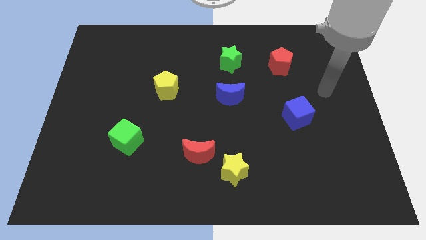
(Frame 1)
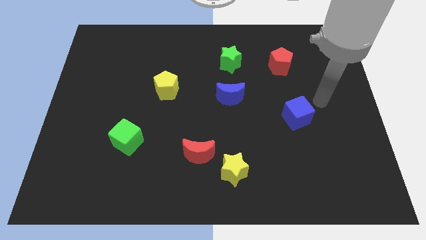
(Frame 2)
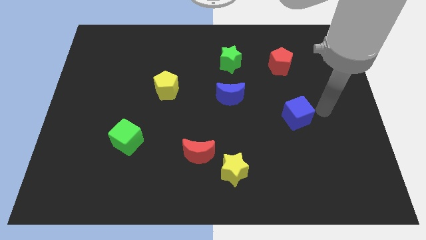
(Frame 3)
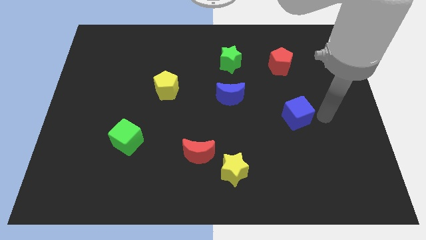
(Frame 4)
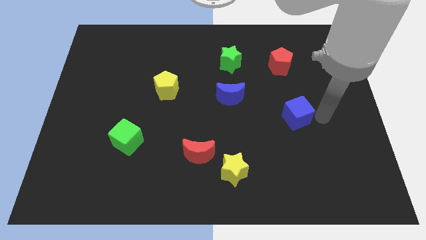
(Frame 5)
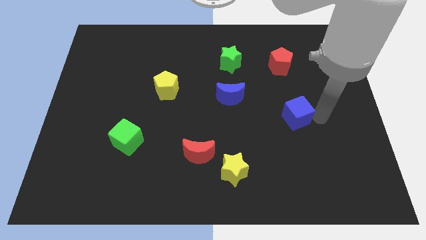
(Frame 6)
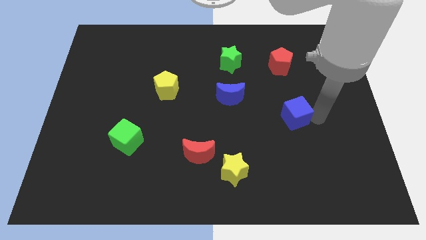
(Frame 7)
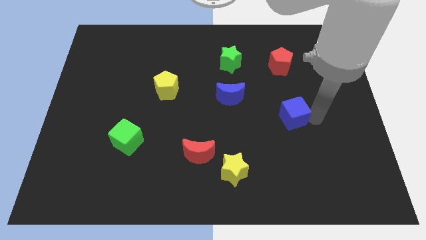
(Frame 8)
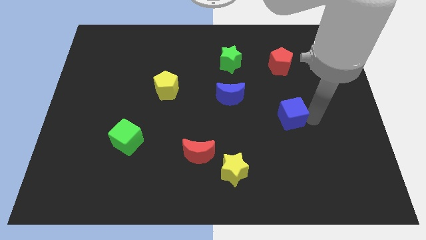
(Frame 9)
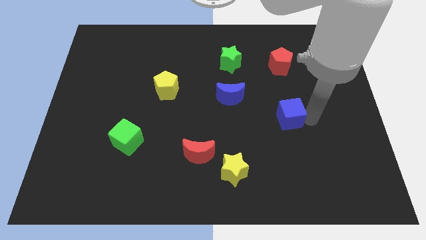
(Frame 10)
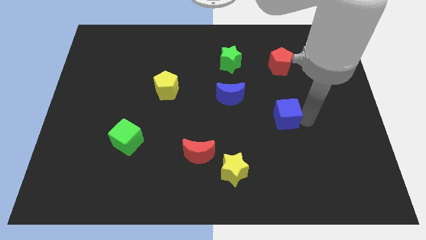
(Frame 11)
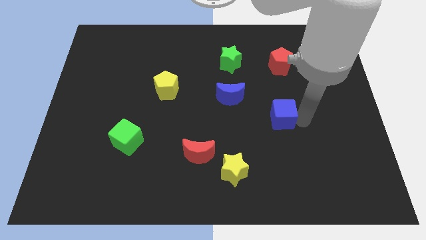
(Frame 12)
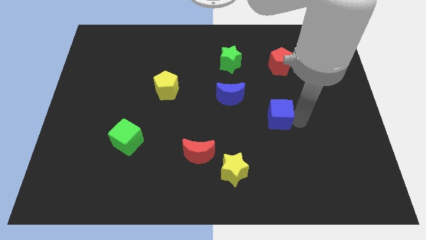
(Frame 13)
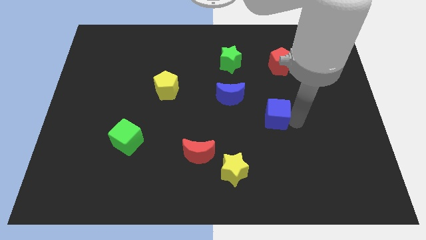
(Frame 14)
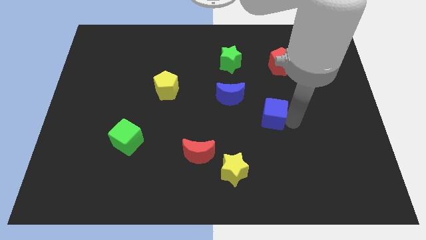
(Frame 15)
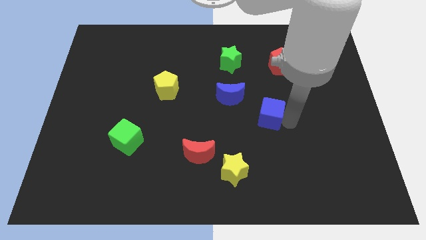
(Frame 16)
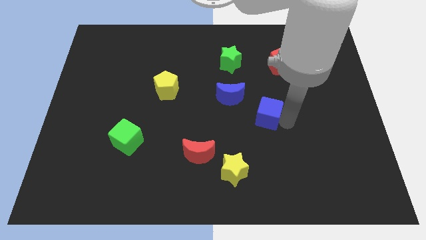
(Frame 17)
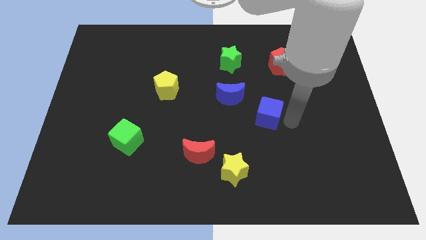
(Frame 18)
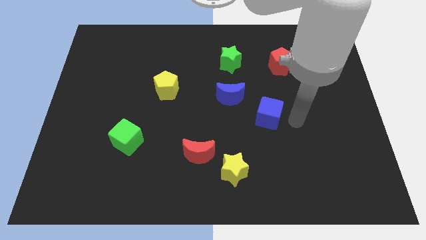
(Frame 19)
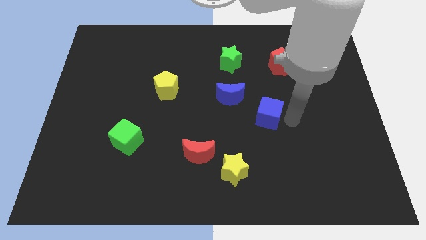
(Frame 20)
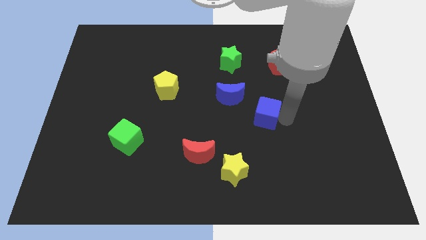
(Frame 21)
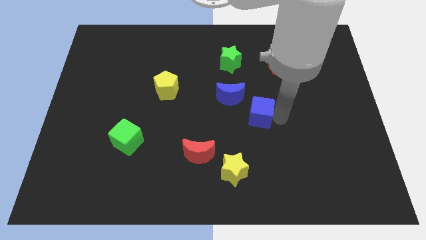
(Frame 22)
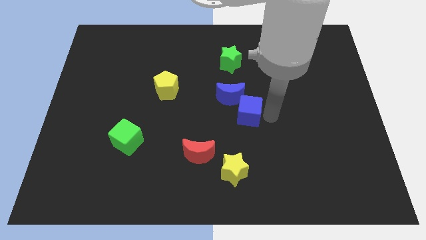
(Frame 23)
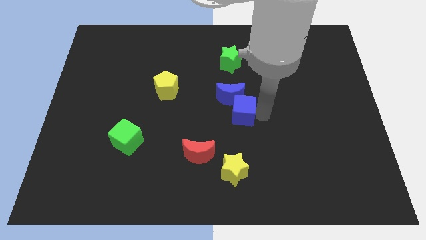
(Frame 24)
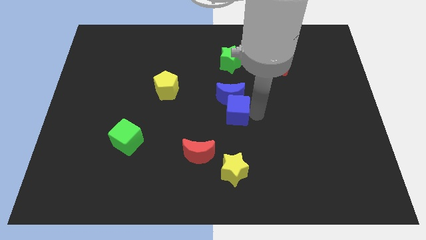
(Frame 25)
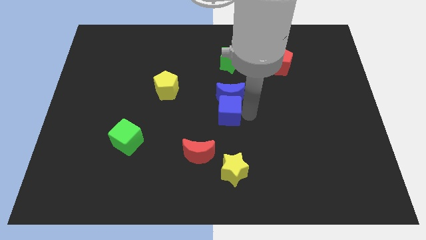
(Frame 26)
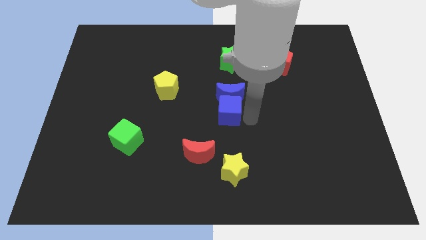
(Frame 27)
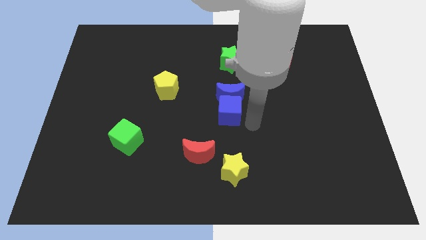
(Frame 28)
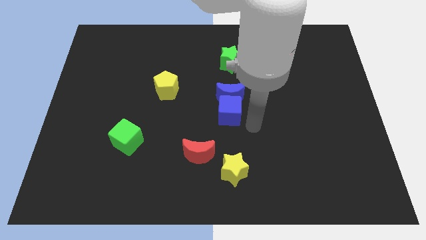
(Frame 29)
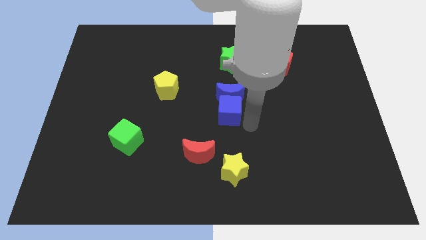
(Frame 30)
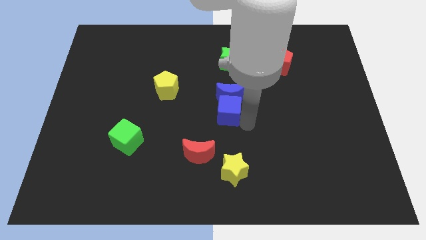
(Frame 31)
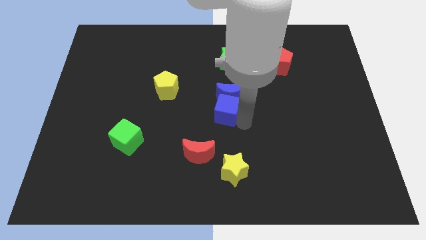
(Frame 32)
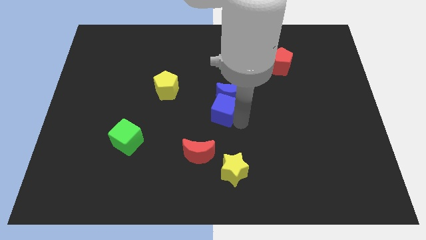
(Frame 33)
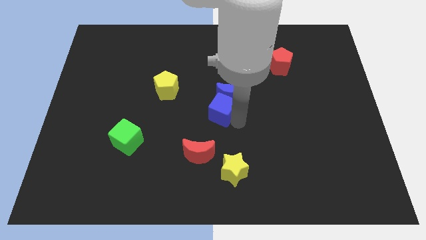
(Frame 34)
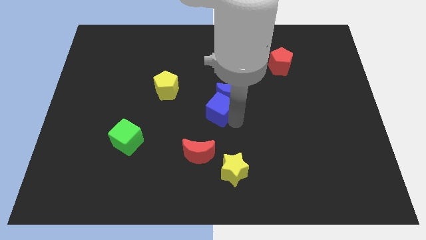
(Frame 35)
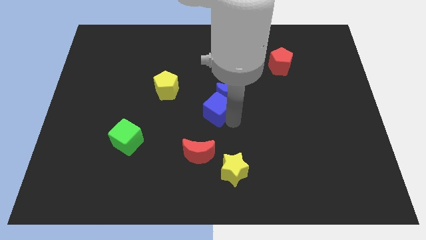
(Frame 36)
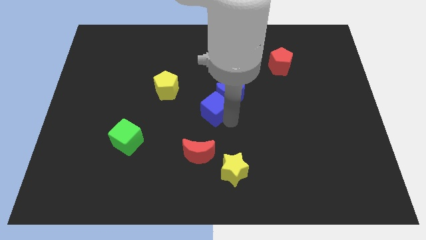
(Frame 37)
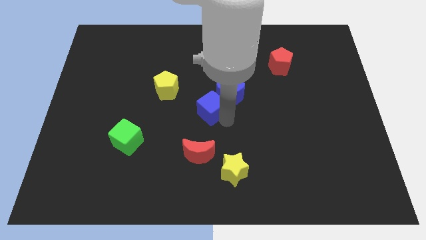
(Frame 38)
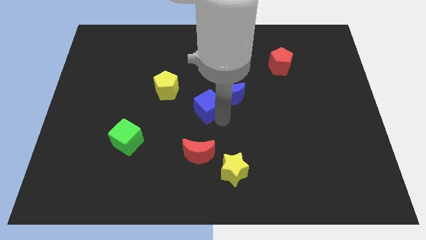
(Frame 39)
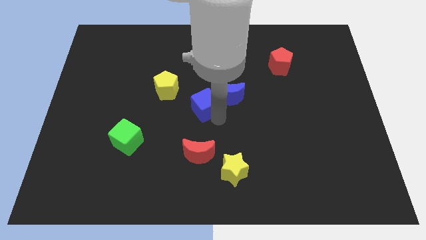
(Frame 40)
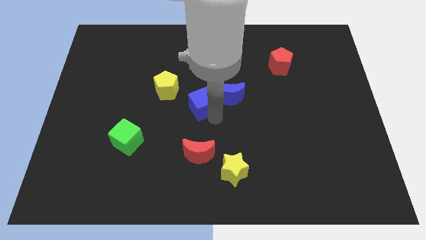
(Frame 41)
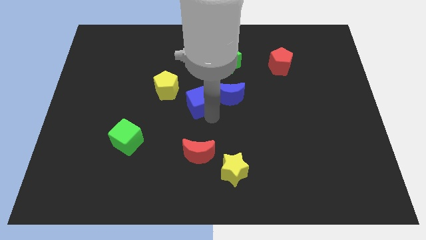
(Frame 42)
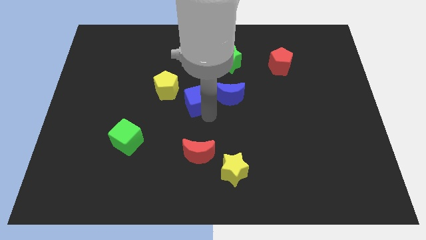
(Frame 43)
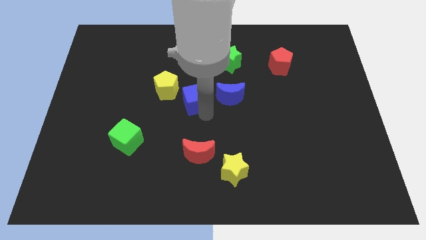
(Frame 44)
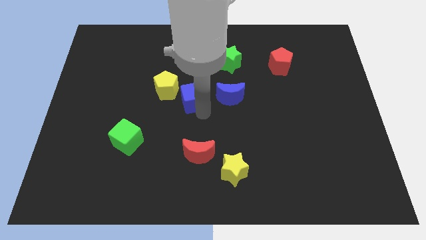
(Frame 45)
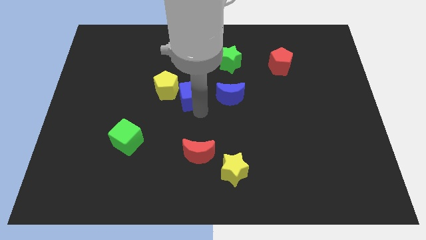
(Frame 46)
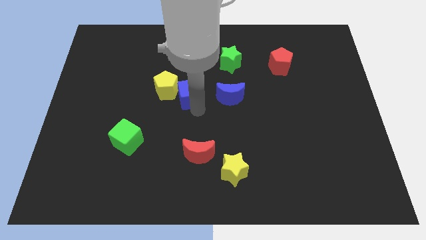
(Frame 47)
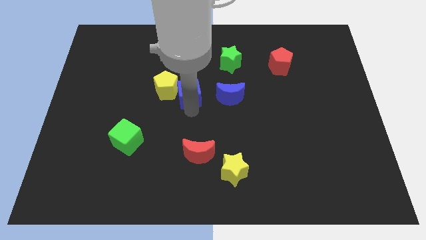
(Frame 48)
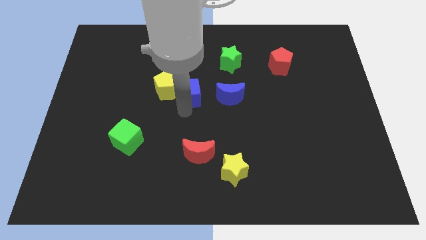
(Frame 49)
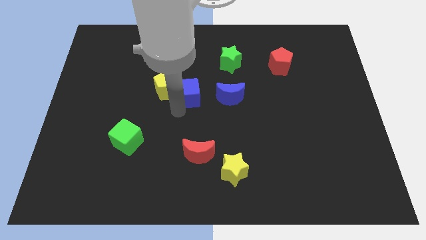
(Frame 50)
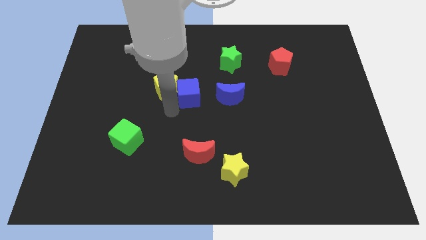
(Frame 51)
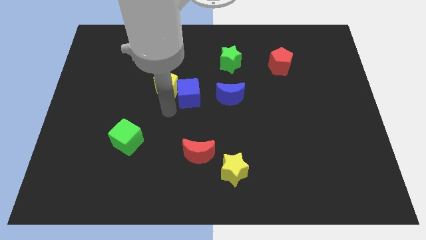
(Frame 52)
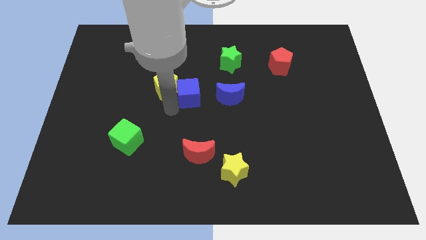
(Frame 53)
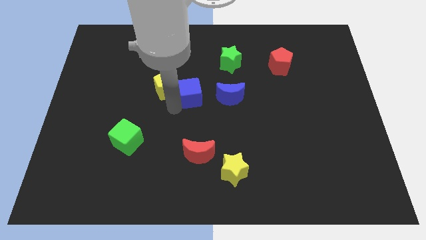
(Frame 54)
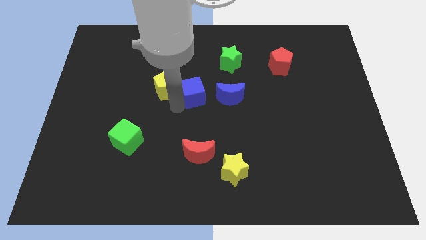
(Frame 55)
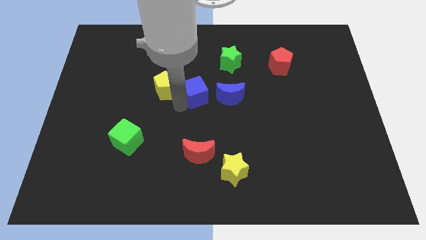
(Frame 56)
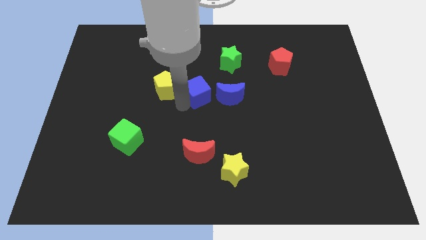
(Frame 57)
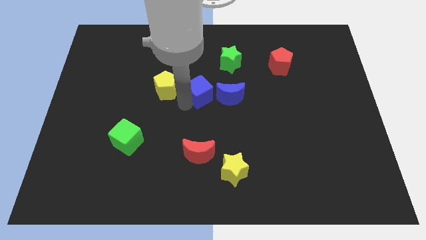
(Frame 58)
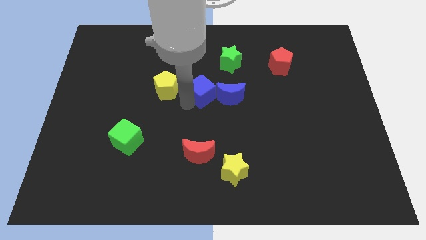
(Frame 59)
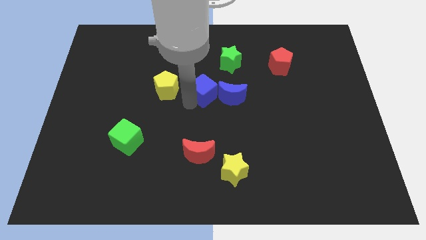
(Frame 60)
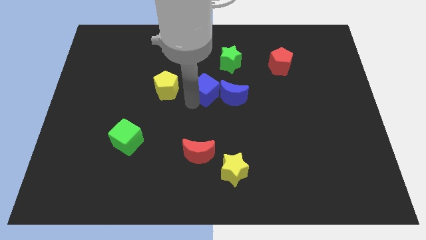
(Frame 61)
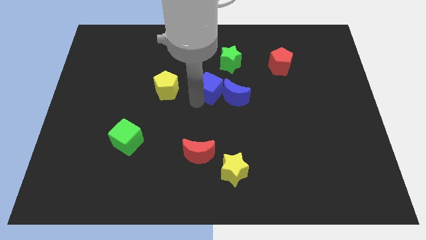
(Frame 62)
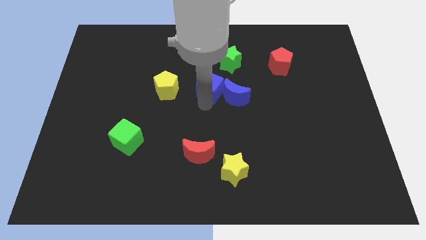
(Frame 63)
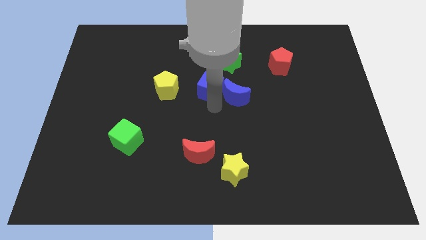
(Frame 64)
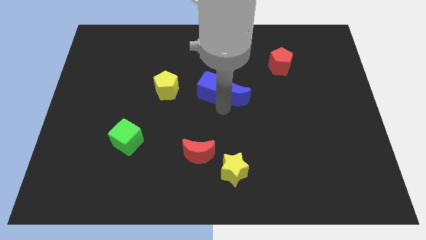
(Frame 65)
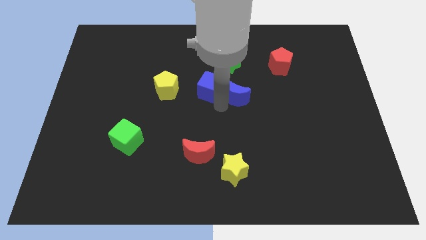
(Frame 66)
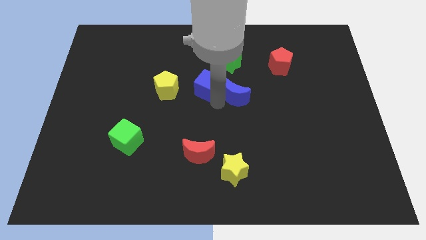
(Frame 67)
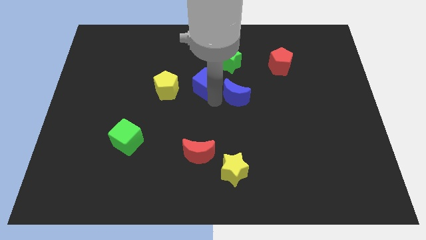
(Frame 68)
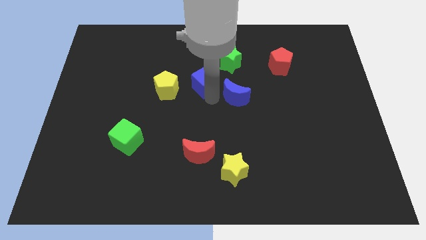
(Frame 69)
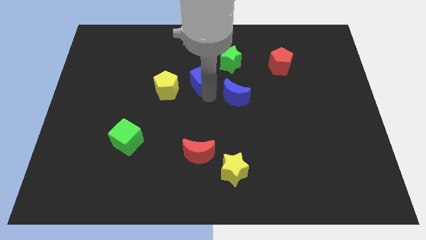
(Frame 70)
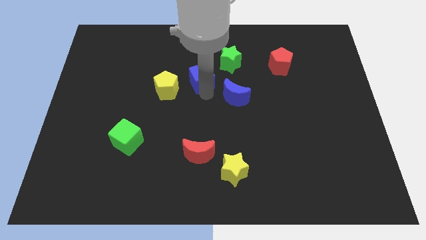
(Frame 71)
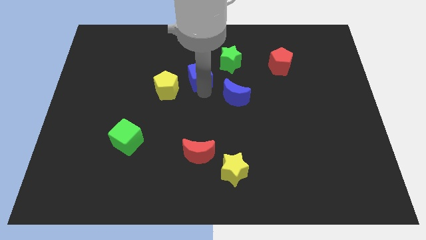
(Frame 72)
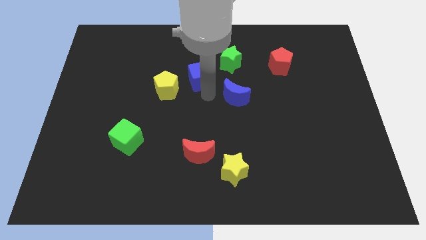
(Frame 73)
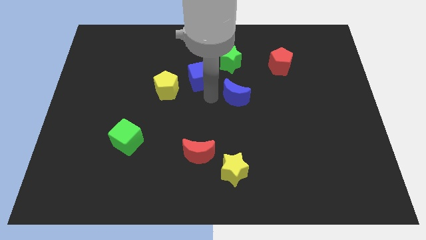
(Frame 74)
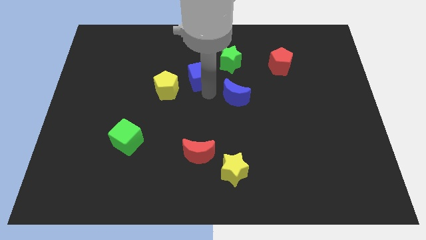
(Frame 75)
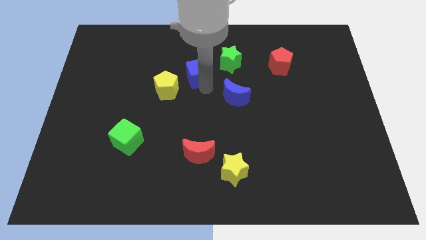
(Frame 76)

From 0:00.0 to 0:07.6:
slide the blue cube to the left side of the green star
